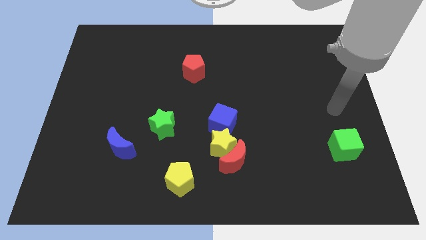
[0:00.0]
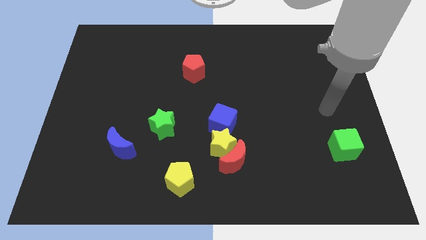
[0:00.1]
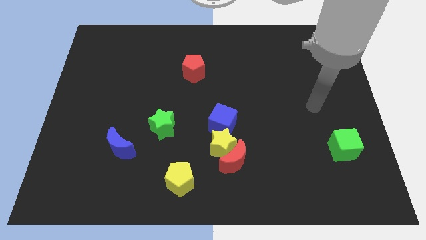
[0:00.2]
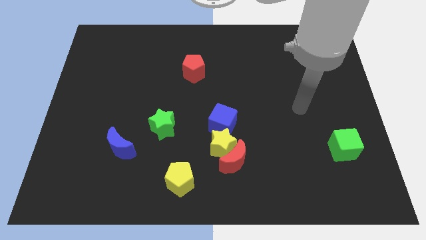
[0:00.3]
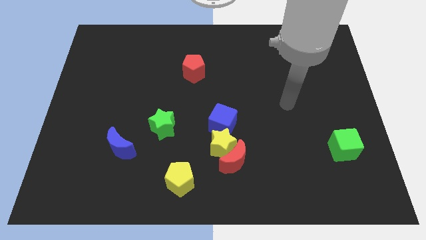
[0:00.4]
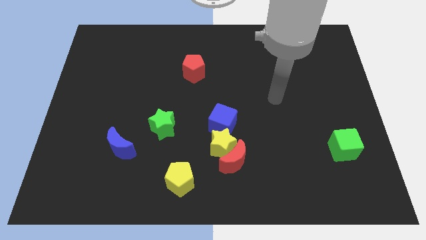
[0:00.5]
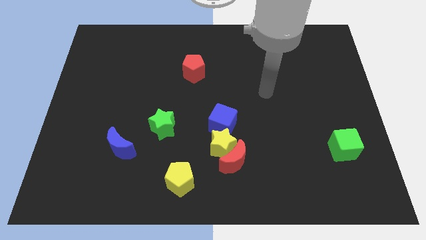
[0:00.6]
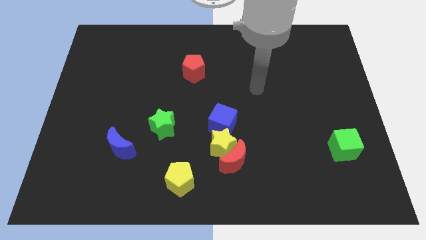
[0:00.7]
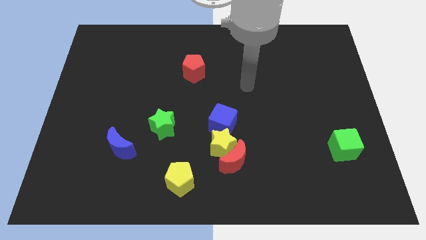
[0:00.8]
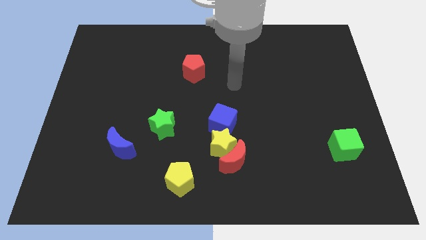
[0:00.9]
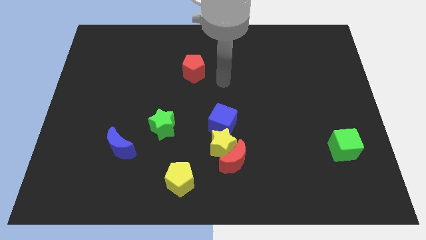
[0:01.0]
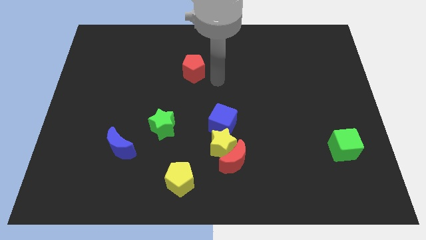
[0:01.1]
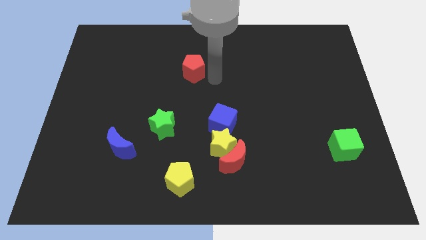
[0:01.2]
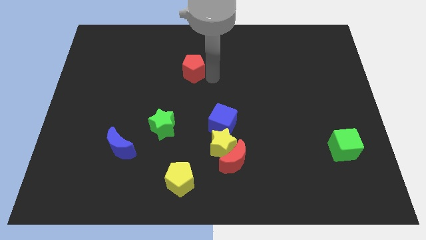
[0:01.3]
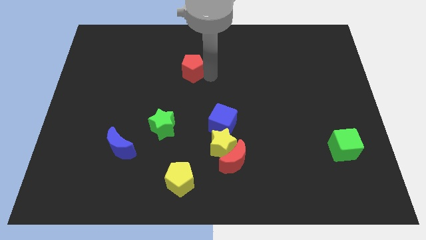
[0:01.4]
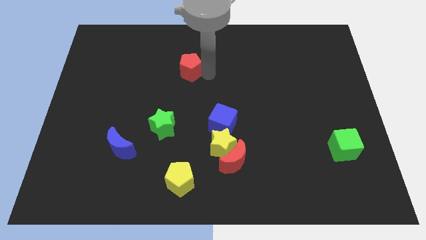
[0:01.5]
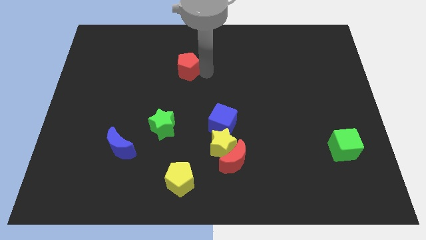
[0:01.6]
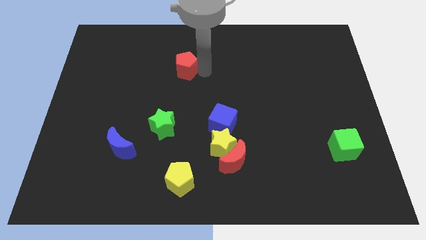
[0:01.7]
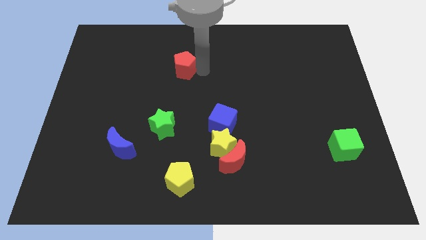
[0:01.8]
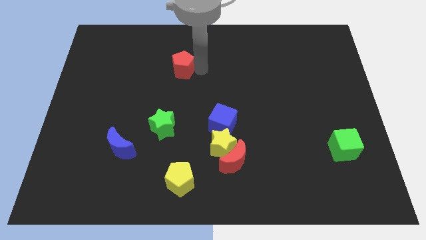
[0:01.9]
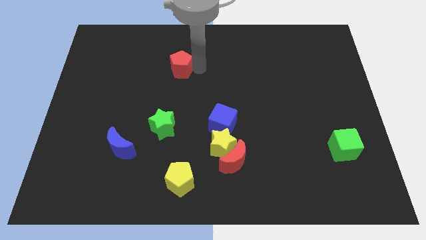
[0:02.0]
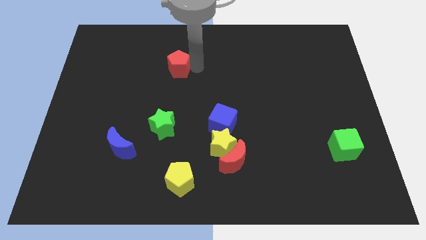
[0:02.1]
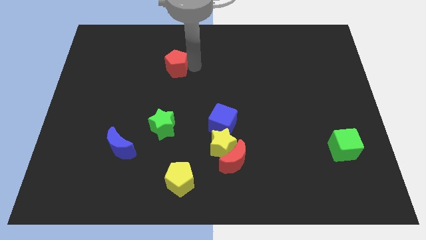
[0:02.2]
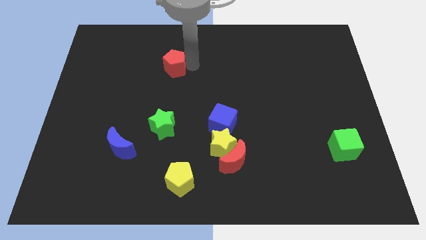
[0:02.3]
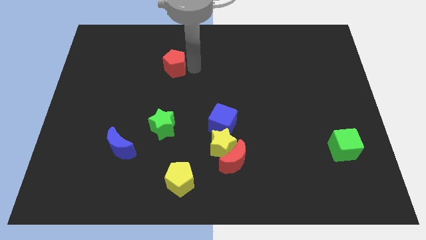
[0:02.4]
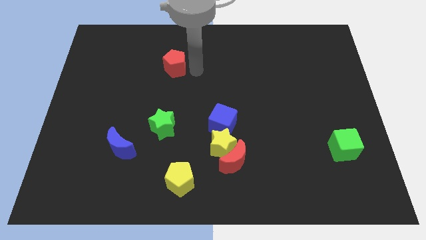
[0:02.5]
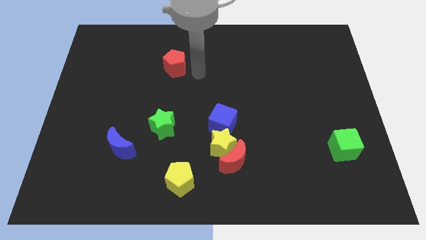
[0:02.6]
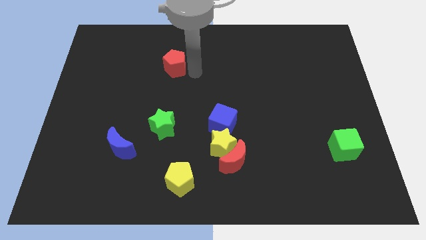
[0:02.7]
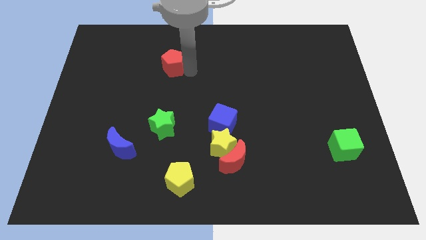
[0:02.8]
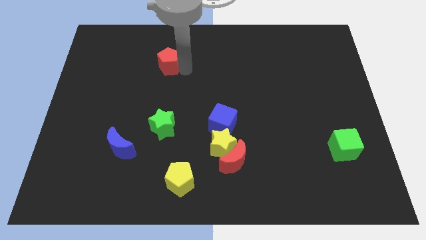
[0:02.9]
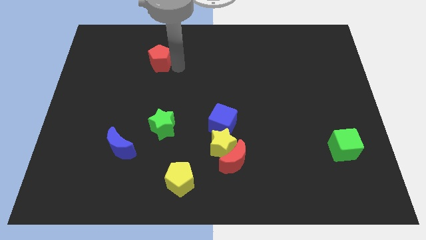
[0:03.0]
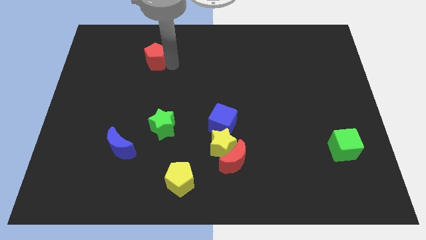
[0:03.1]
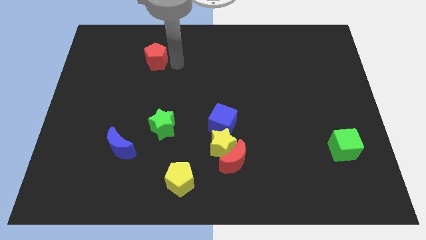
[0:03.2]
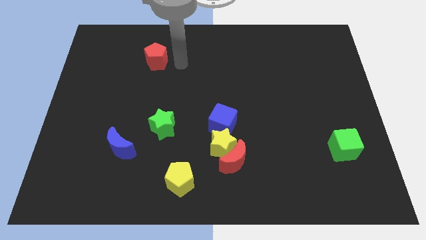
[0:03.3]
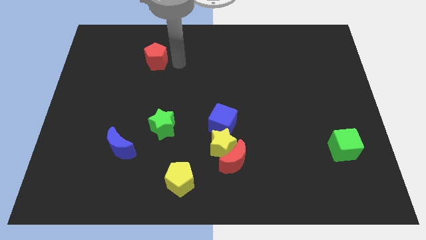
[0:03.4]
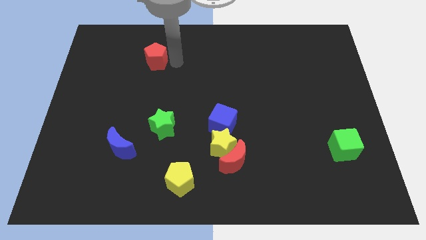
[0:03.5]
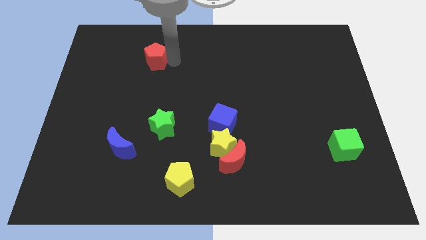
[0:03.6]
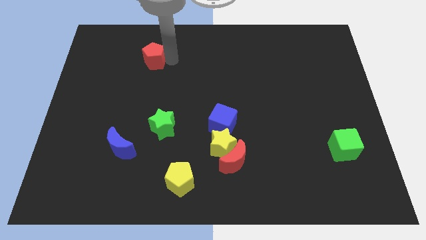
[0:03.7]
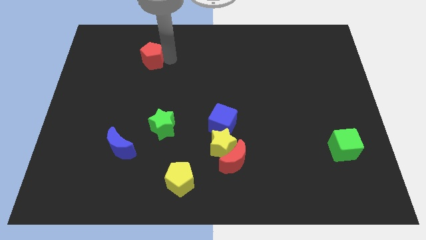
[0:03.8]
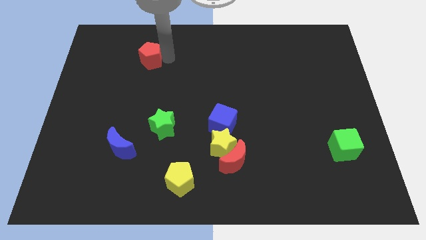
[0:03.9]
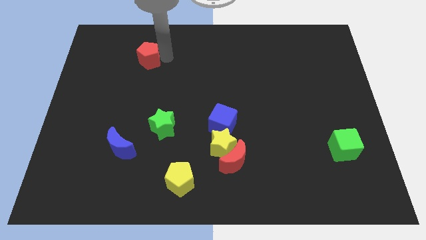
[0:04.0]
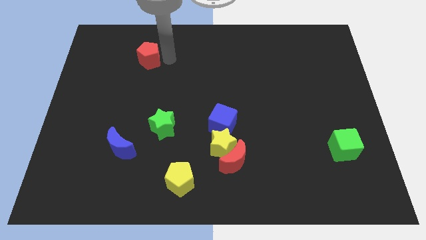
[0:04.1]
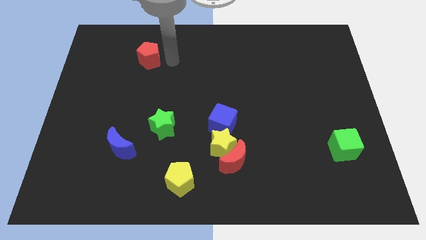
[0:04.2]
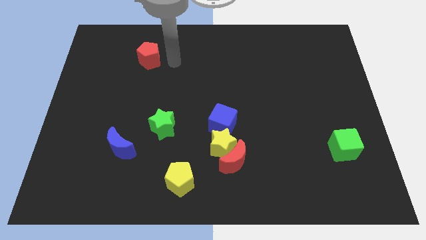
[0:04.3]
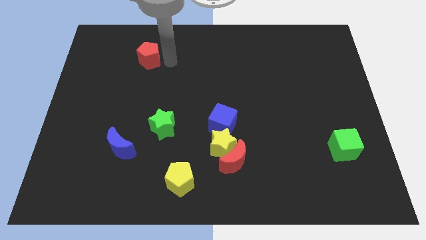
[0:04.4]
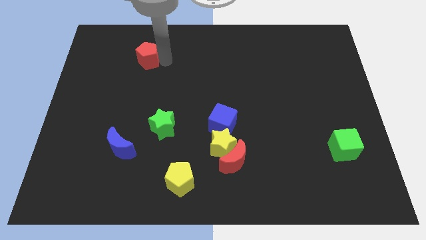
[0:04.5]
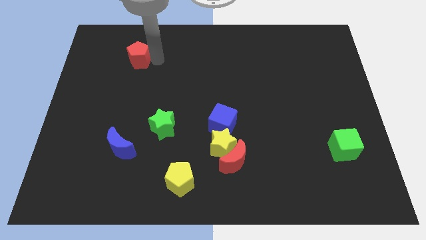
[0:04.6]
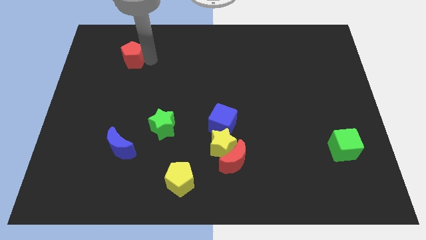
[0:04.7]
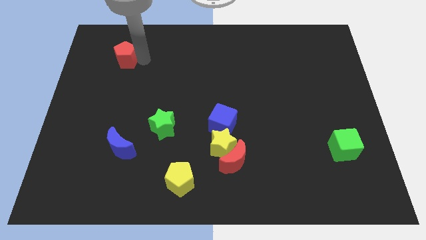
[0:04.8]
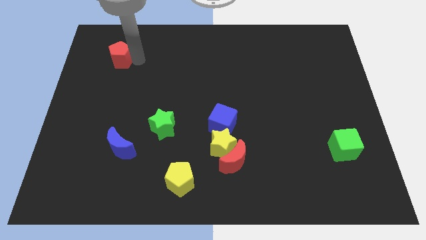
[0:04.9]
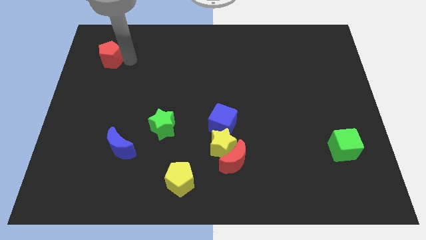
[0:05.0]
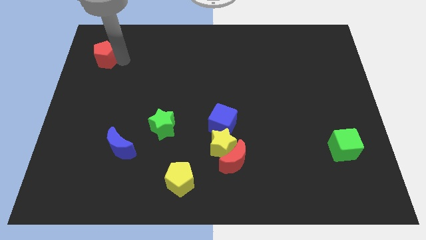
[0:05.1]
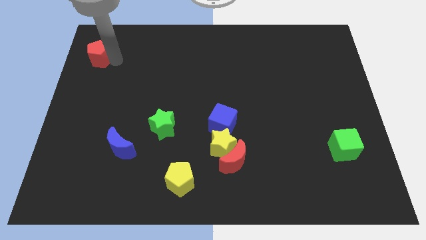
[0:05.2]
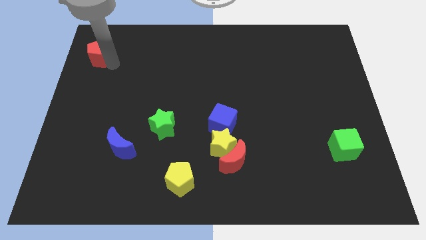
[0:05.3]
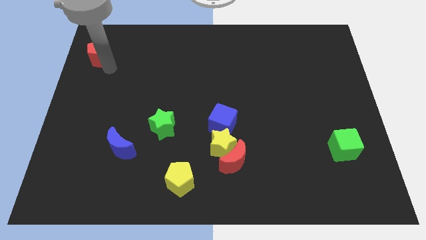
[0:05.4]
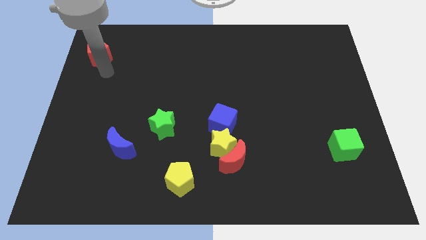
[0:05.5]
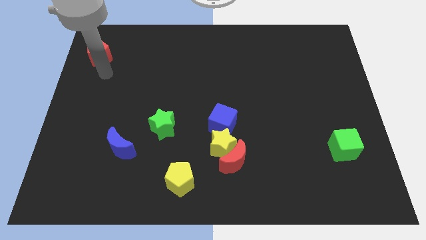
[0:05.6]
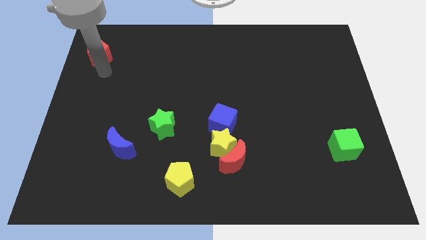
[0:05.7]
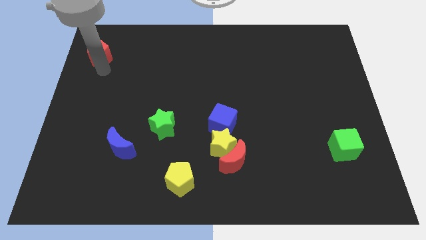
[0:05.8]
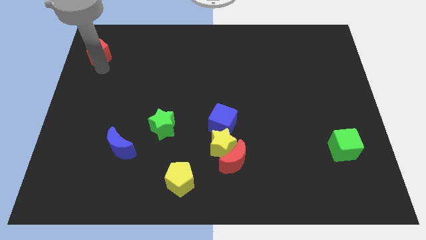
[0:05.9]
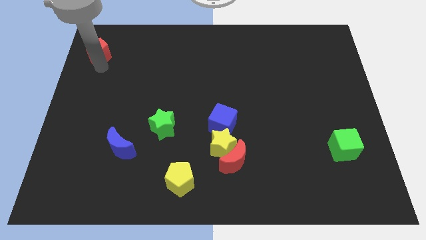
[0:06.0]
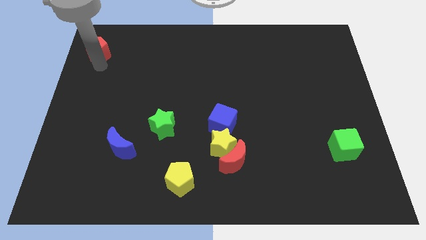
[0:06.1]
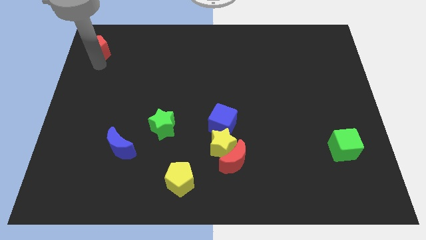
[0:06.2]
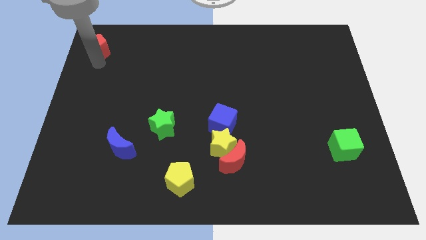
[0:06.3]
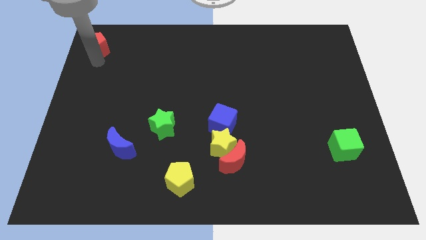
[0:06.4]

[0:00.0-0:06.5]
slide the red pentagon to the upper left corner
